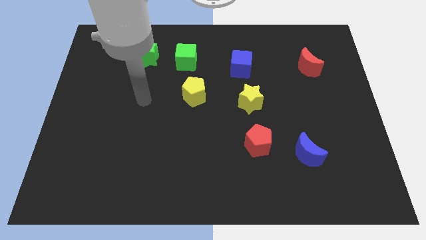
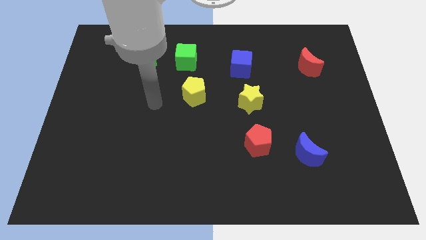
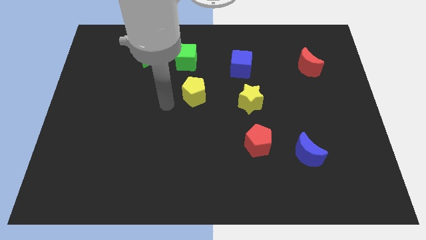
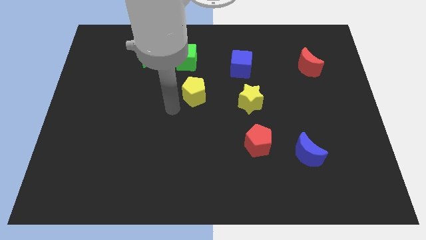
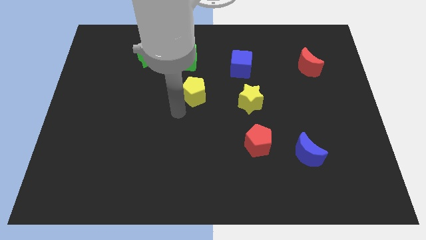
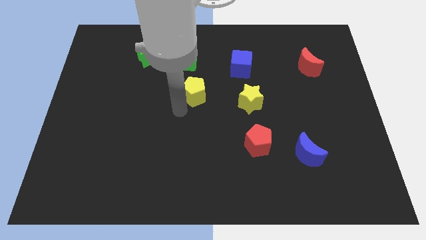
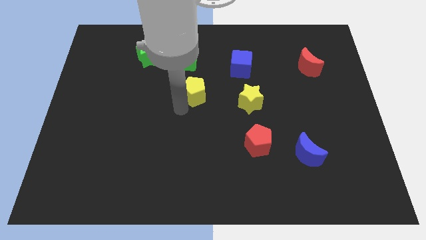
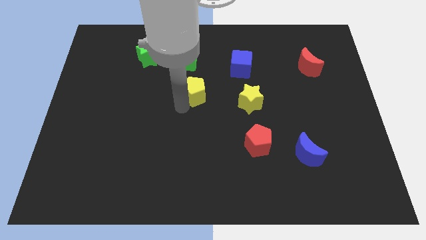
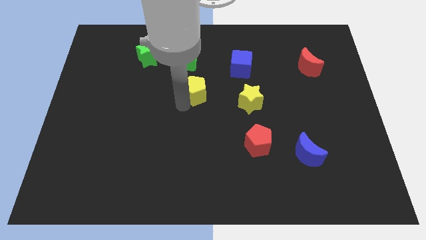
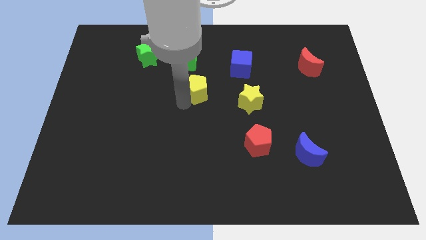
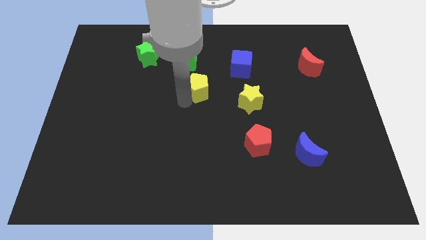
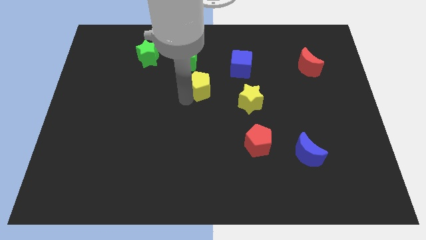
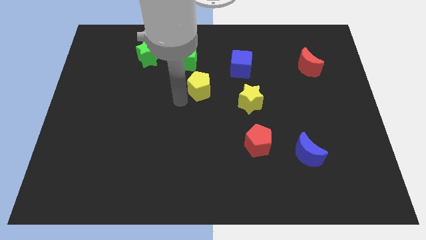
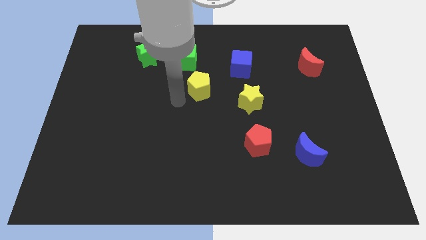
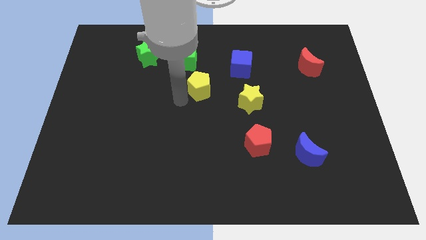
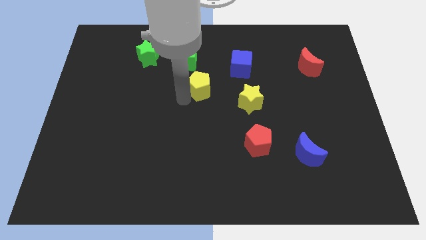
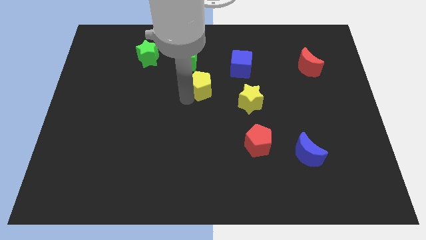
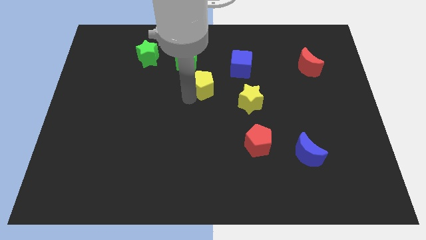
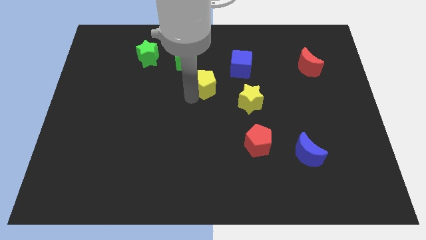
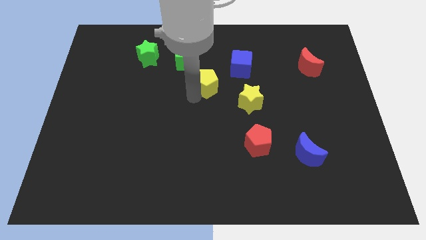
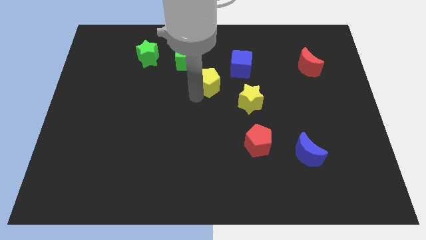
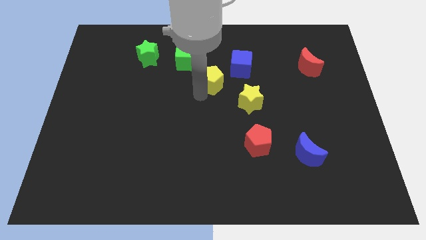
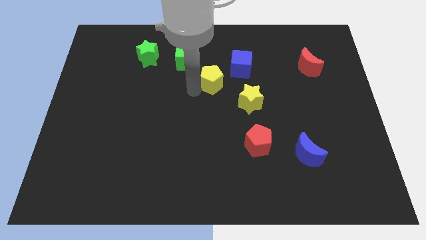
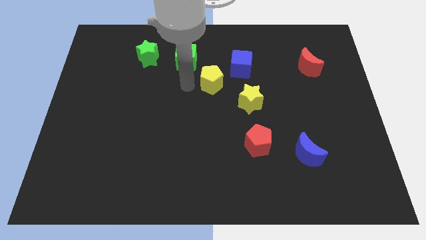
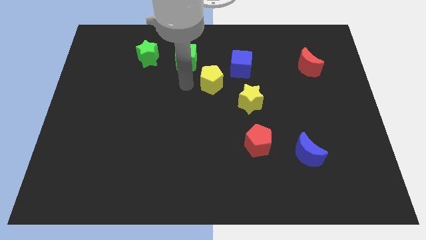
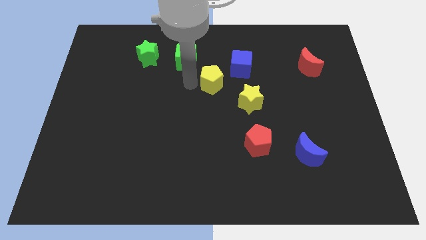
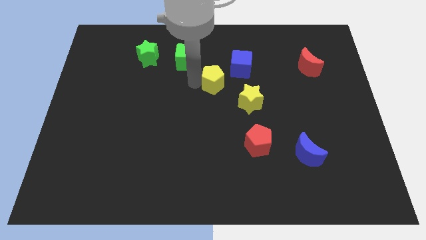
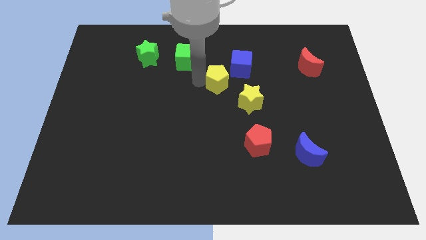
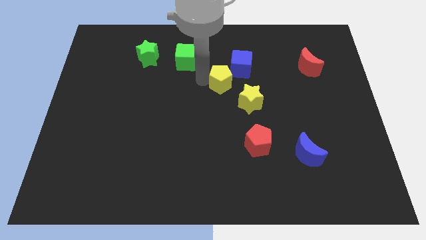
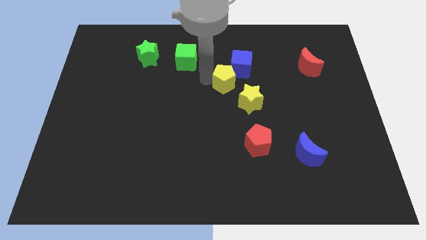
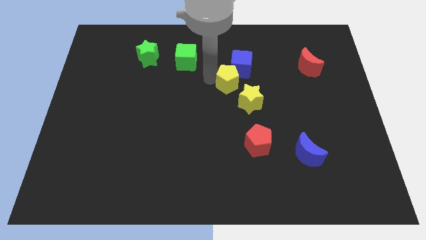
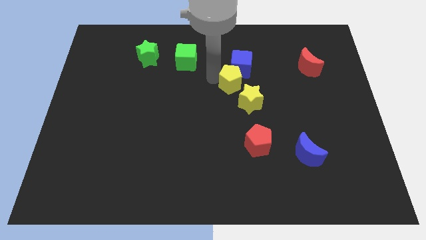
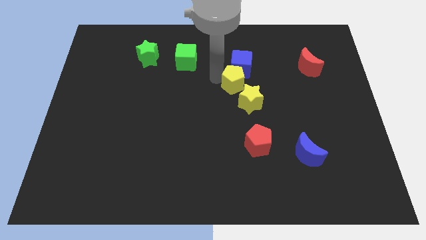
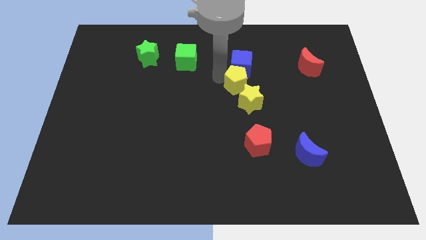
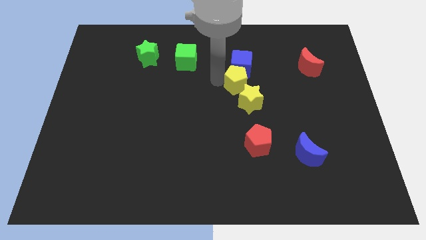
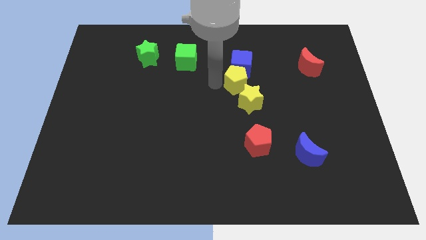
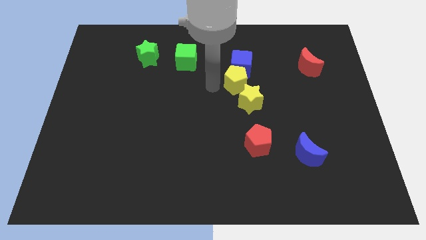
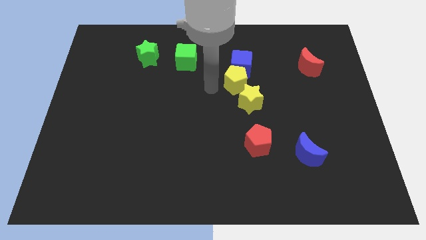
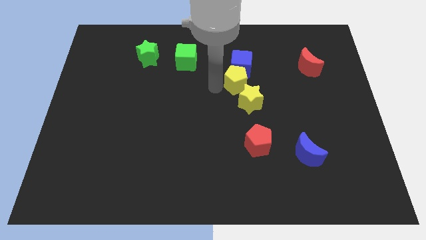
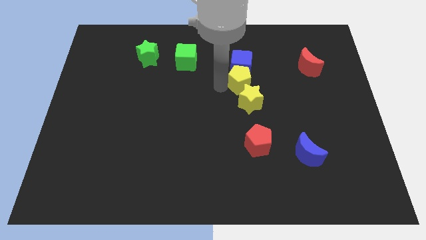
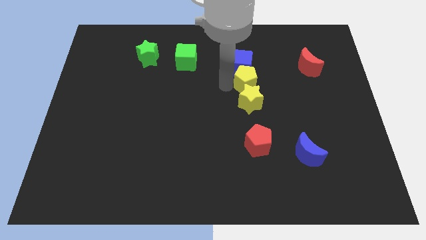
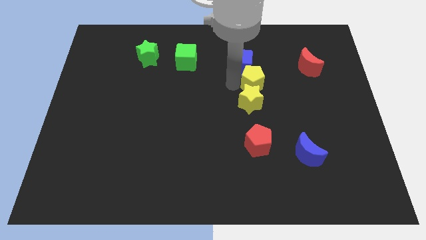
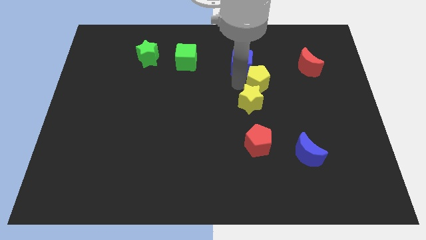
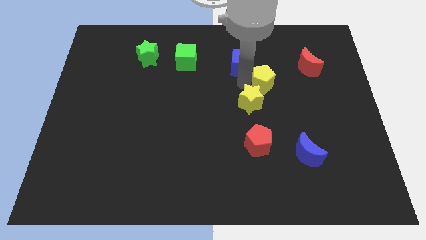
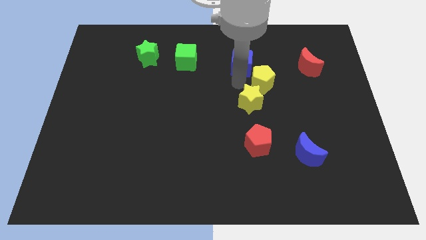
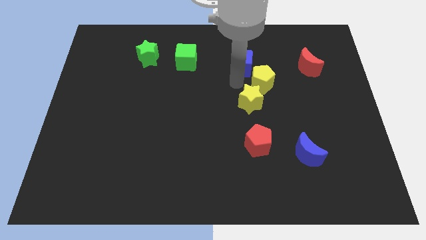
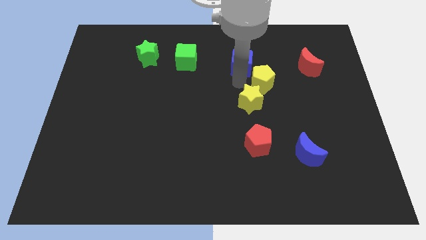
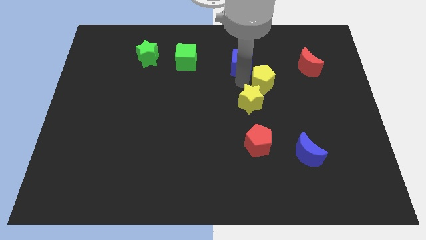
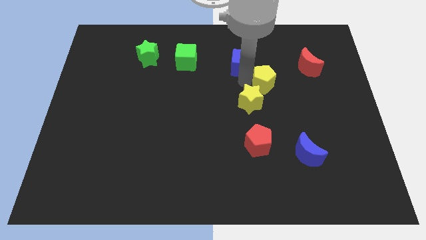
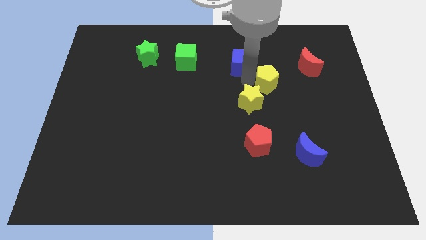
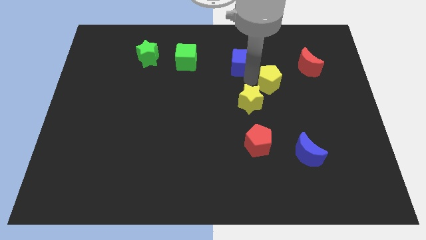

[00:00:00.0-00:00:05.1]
push the yellow pentagon diagonally down and to the left of the red moon

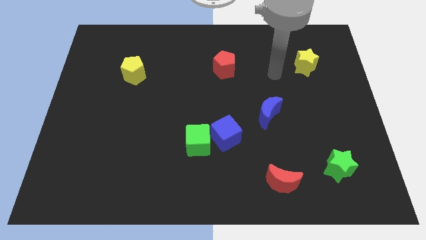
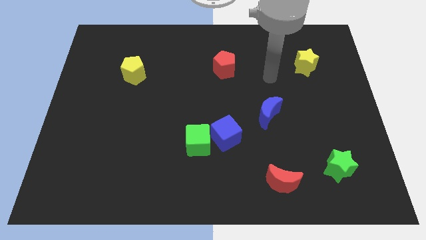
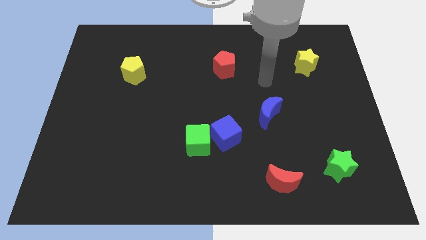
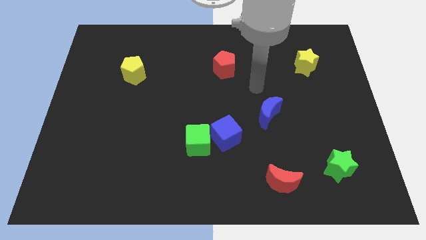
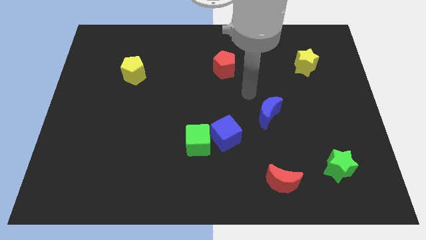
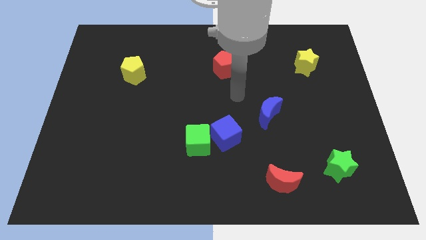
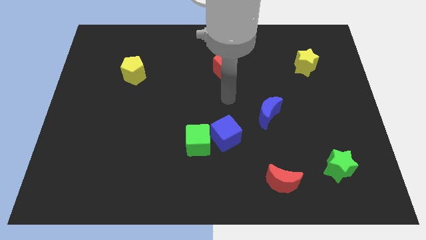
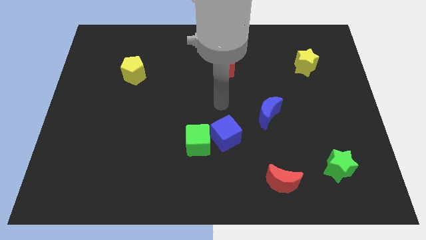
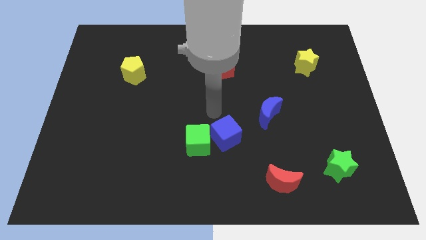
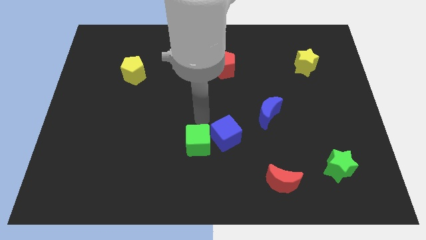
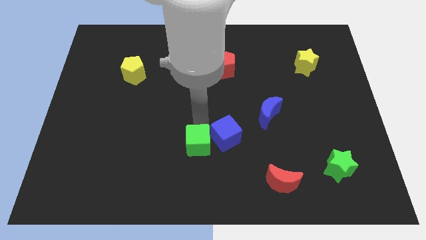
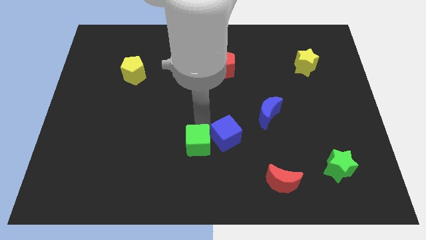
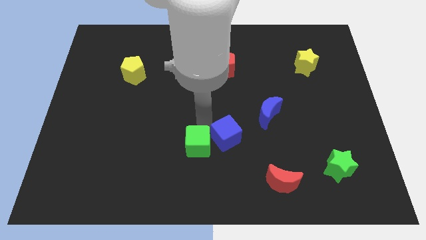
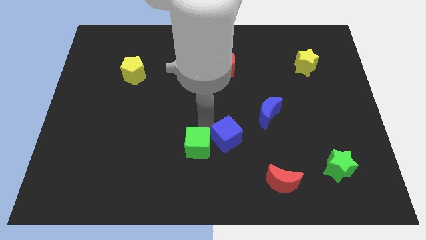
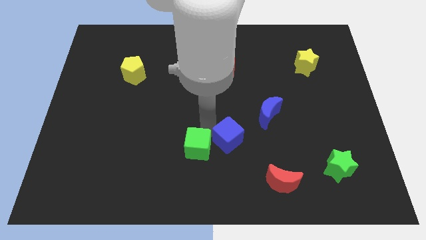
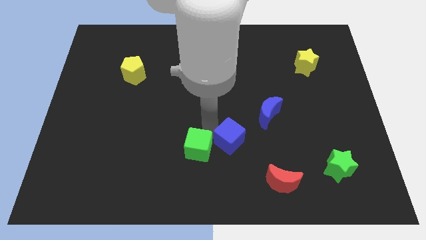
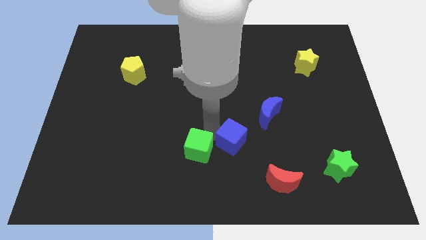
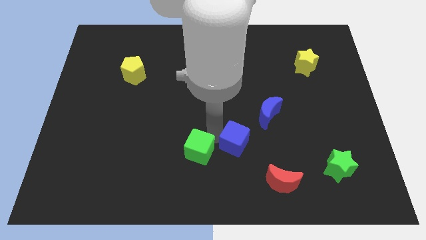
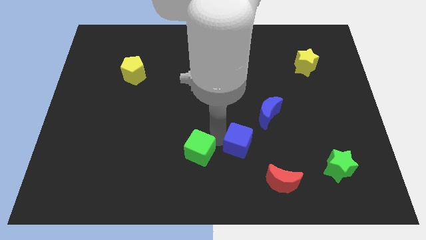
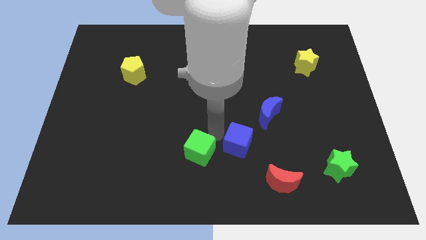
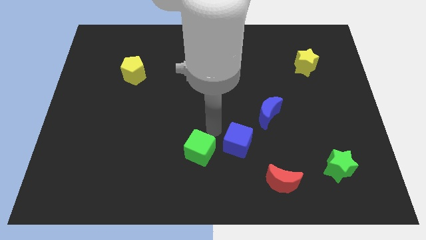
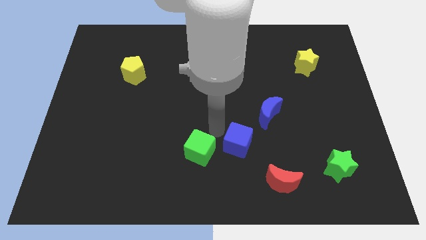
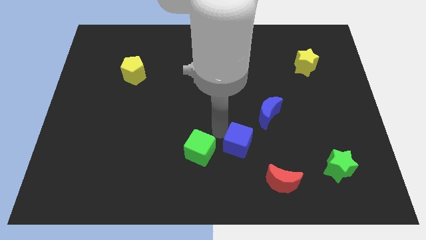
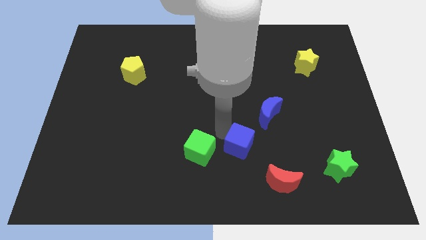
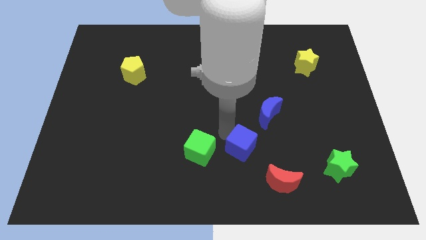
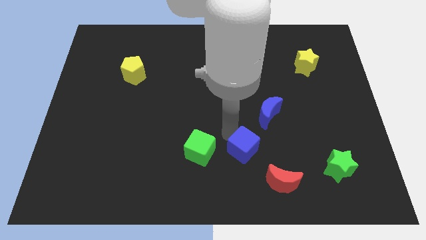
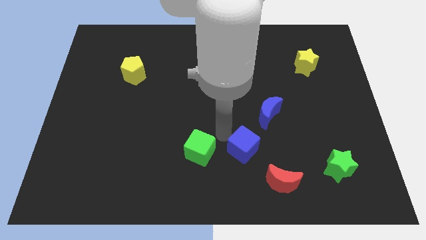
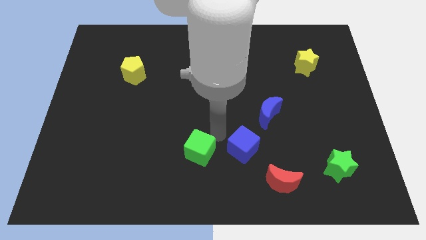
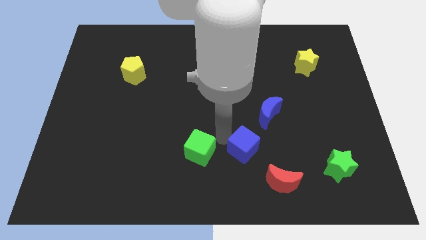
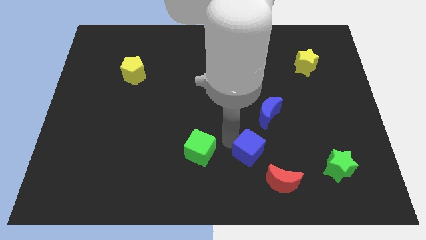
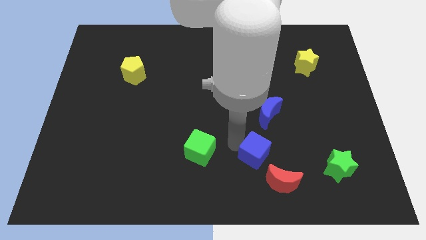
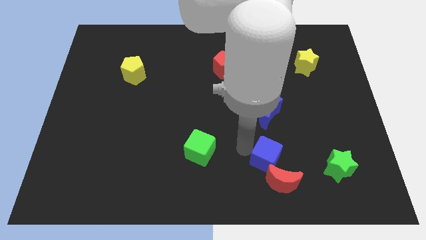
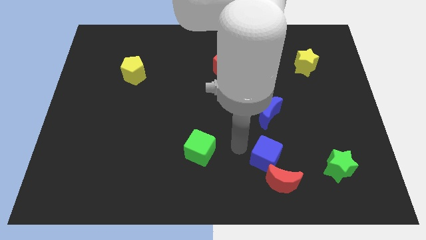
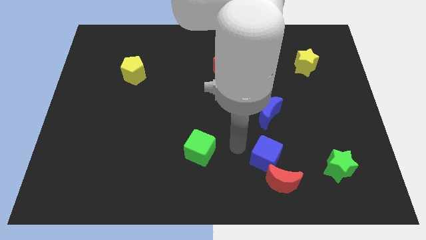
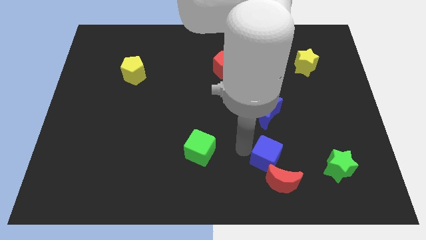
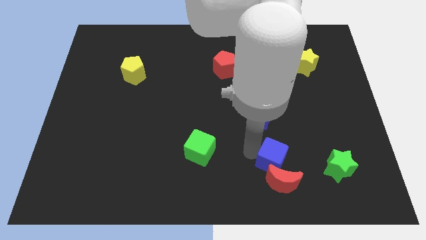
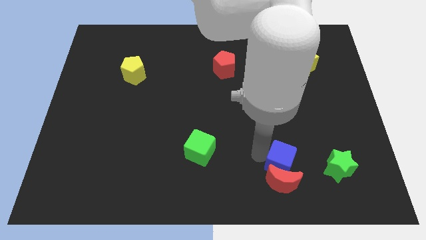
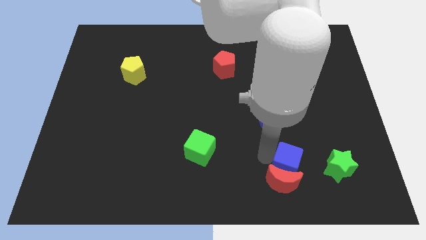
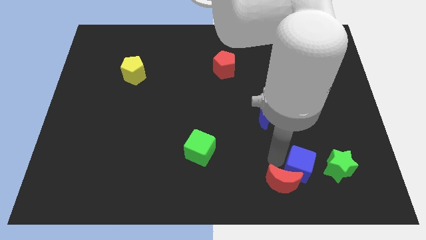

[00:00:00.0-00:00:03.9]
slide the blue cube to the right side of the red moon
